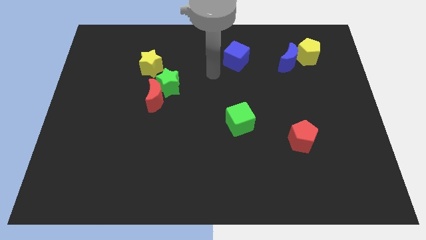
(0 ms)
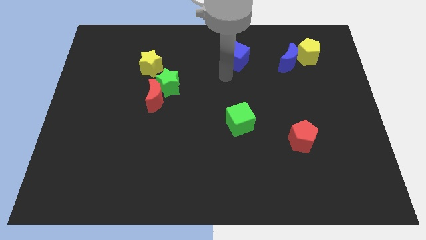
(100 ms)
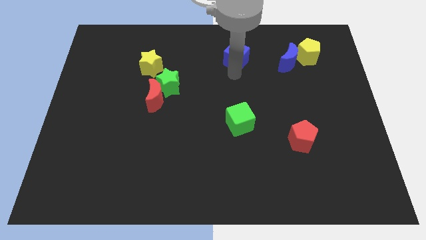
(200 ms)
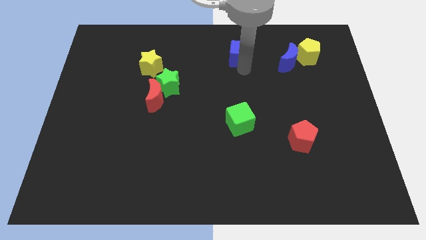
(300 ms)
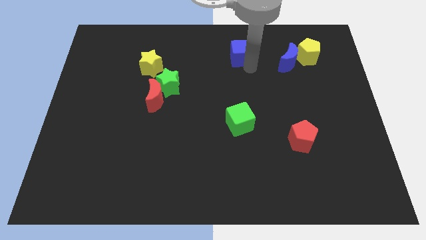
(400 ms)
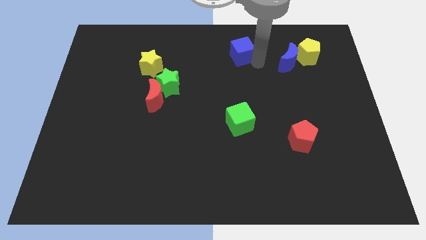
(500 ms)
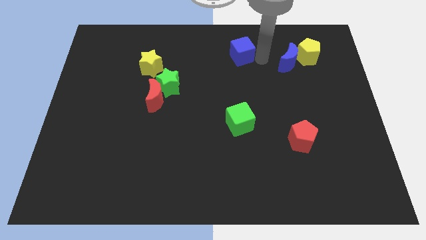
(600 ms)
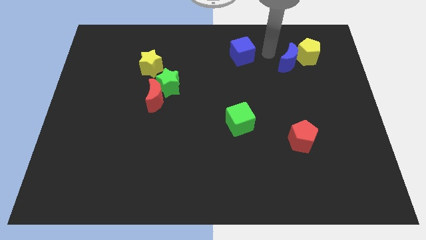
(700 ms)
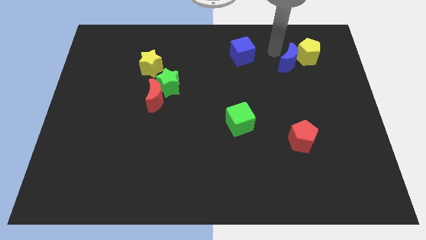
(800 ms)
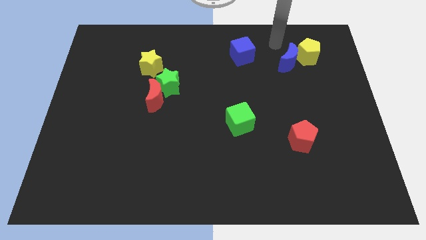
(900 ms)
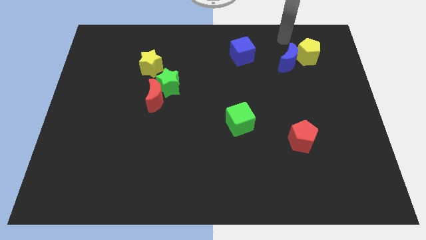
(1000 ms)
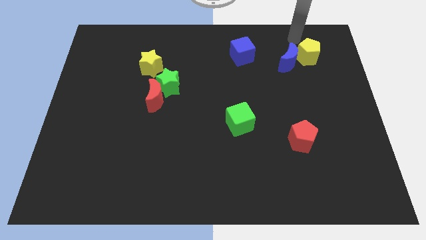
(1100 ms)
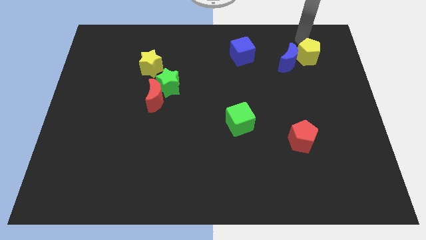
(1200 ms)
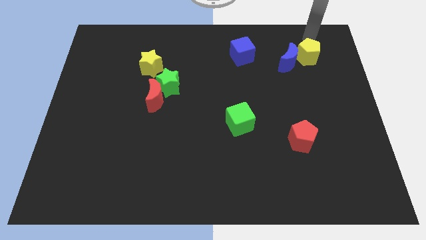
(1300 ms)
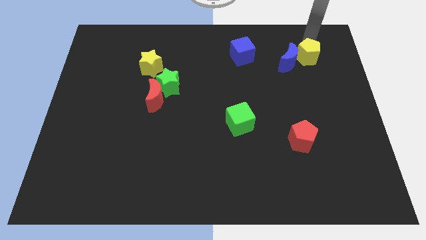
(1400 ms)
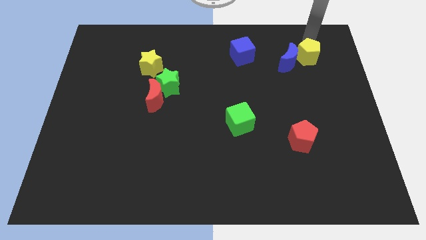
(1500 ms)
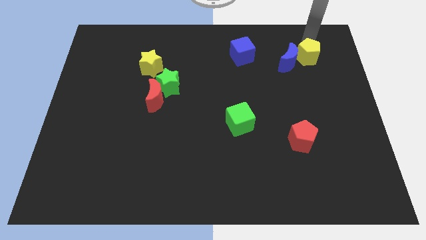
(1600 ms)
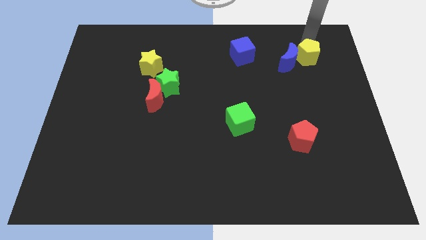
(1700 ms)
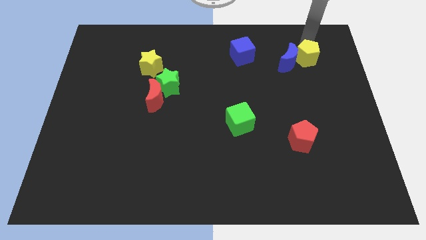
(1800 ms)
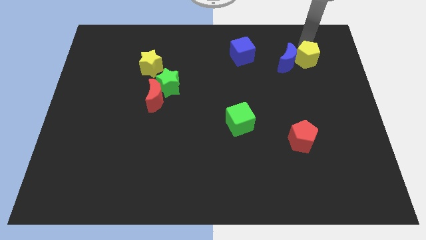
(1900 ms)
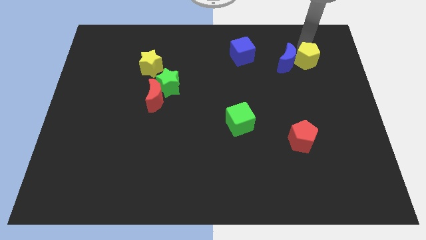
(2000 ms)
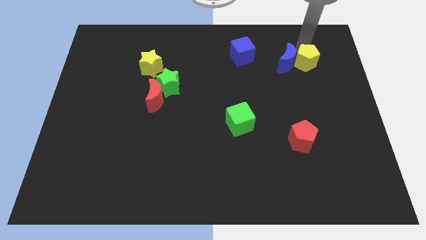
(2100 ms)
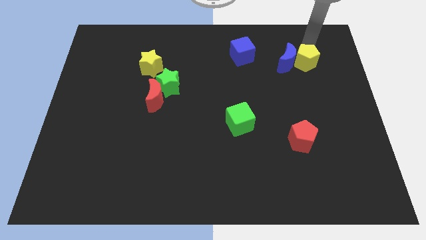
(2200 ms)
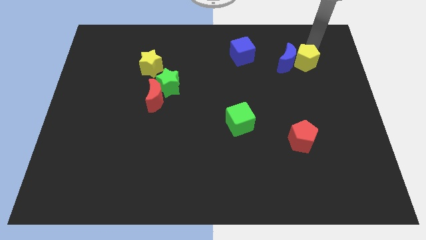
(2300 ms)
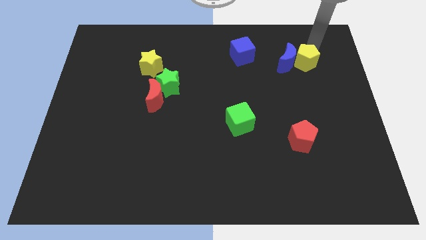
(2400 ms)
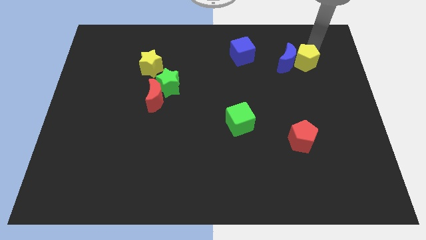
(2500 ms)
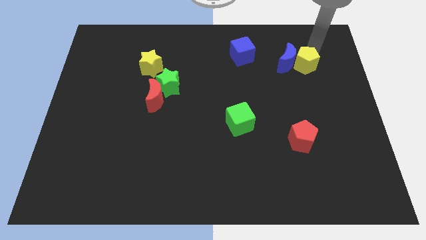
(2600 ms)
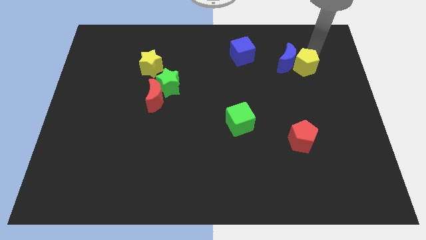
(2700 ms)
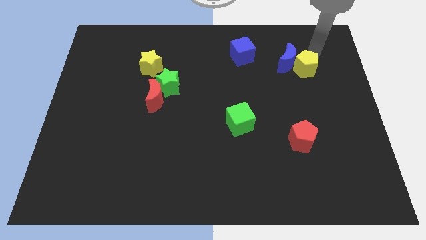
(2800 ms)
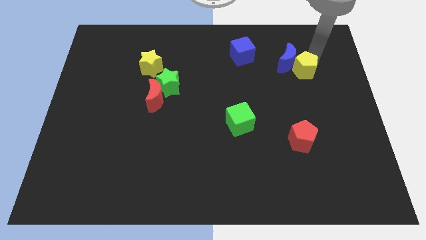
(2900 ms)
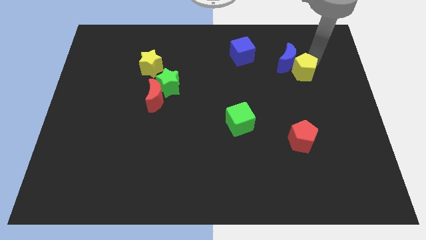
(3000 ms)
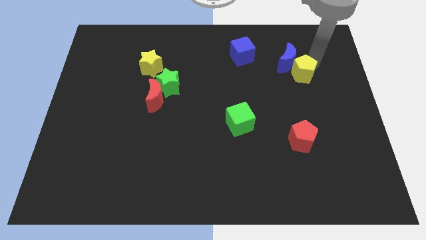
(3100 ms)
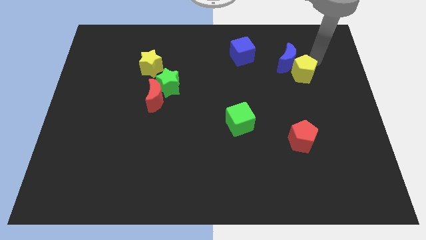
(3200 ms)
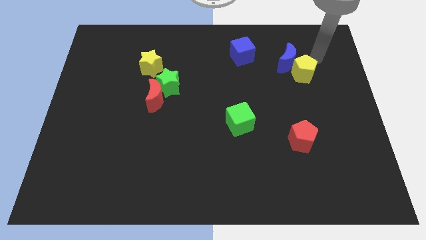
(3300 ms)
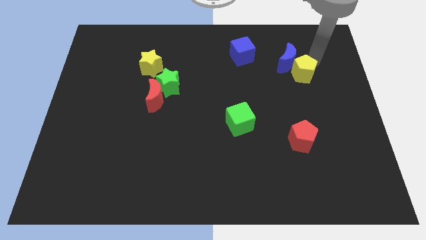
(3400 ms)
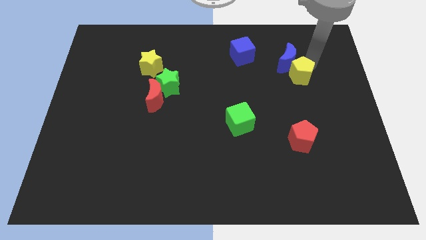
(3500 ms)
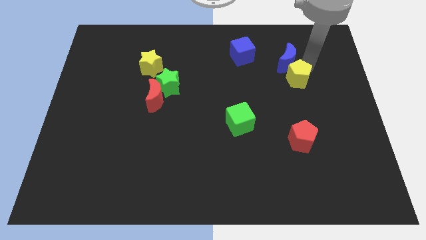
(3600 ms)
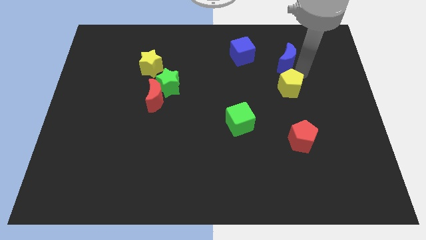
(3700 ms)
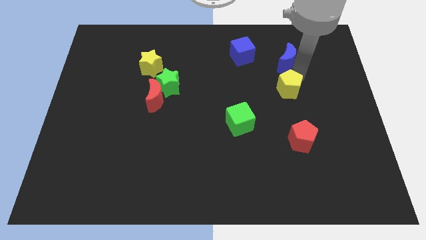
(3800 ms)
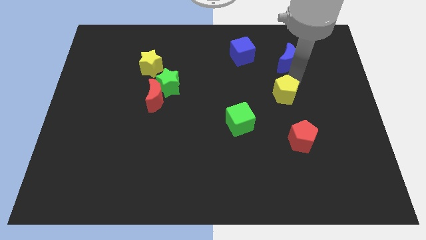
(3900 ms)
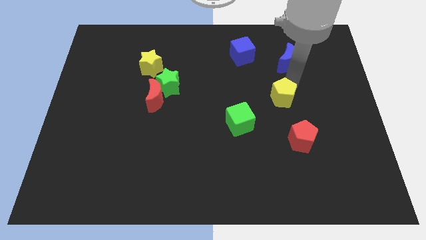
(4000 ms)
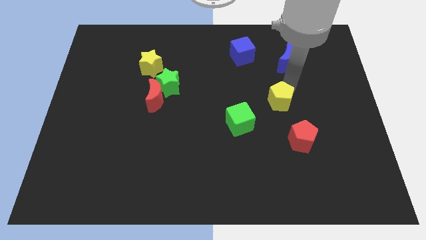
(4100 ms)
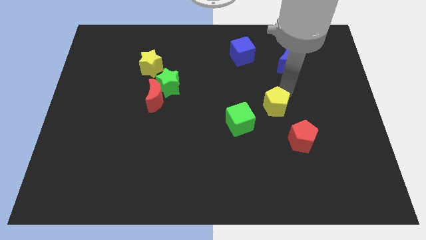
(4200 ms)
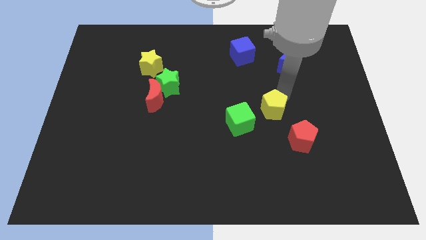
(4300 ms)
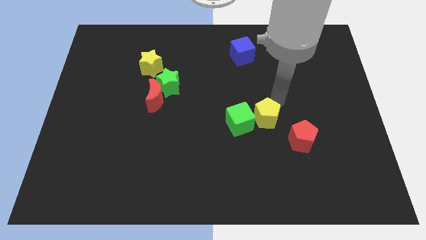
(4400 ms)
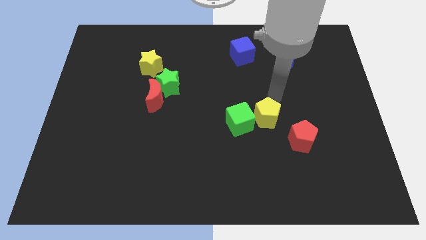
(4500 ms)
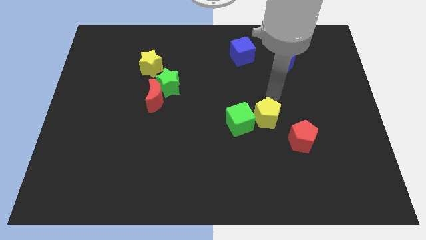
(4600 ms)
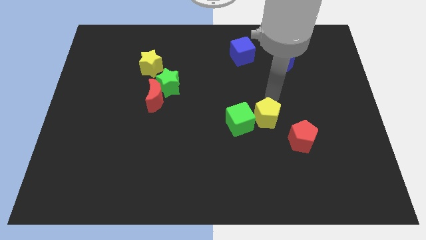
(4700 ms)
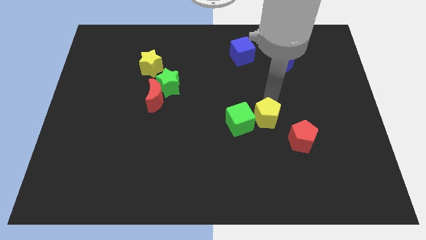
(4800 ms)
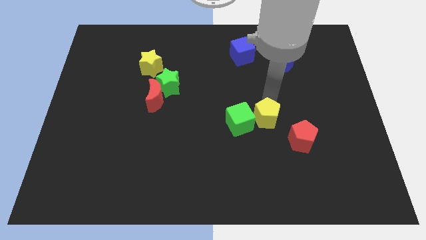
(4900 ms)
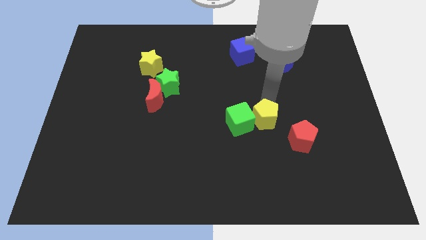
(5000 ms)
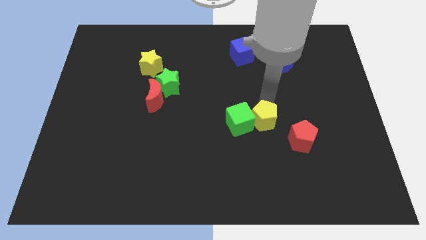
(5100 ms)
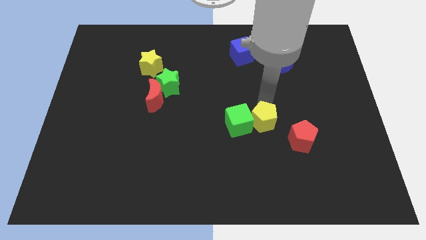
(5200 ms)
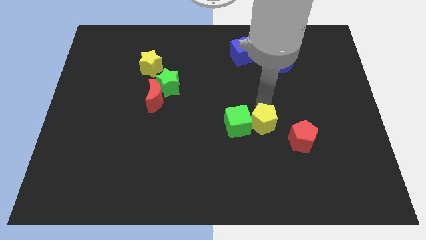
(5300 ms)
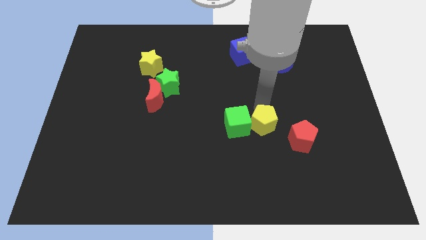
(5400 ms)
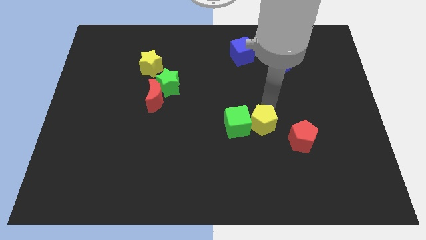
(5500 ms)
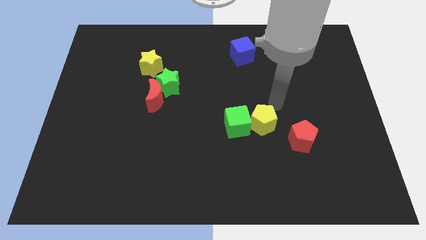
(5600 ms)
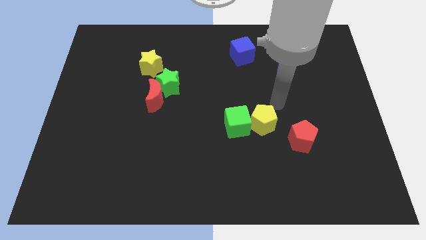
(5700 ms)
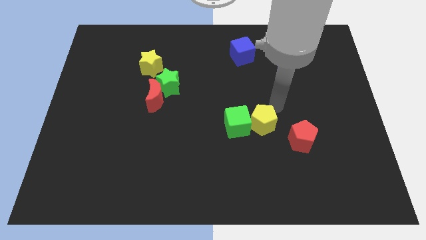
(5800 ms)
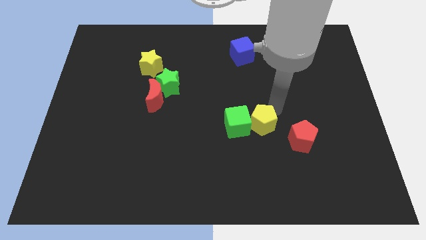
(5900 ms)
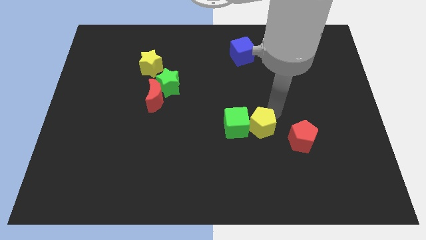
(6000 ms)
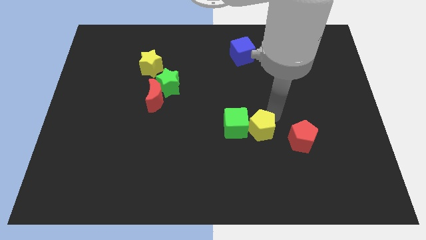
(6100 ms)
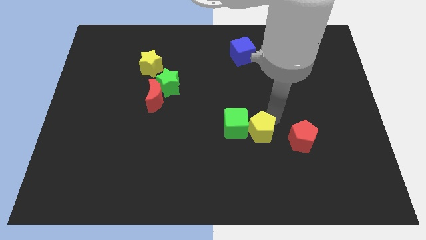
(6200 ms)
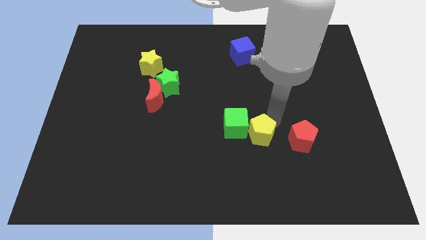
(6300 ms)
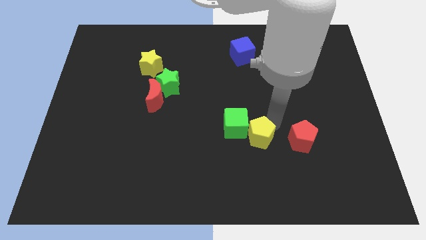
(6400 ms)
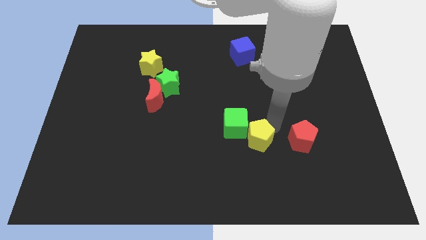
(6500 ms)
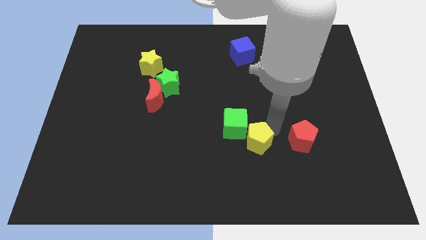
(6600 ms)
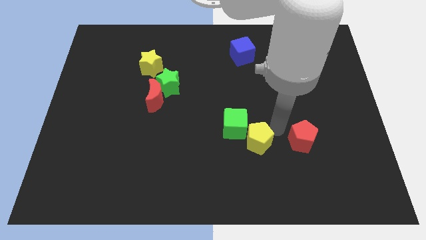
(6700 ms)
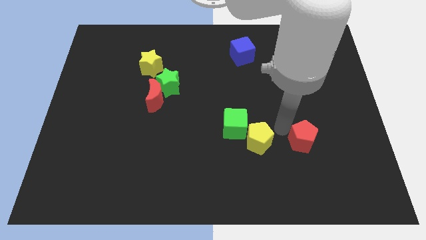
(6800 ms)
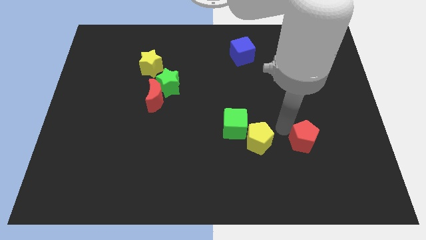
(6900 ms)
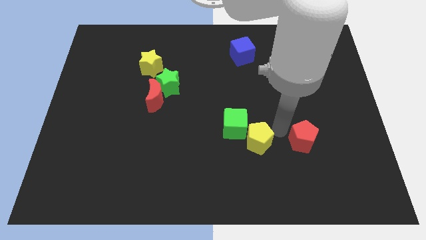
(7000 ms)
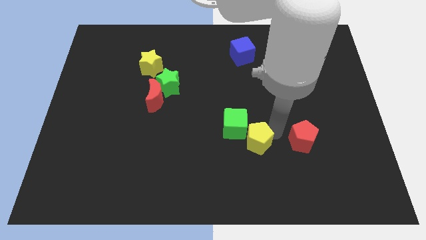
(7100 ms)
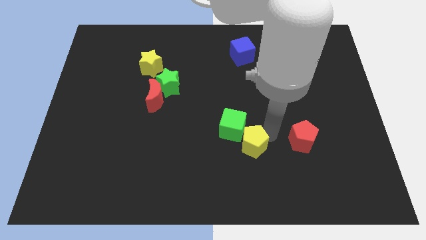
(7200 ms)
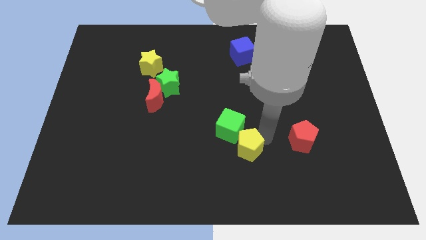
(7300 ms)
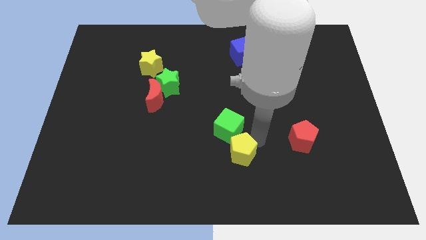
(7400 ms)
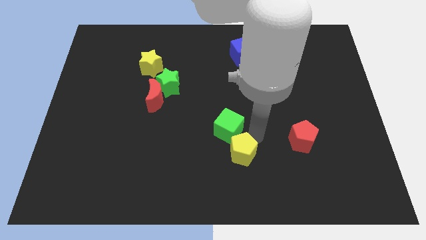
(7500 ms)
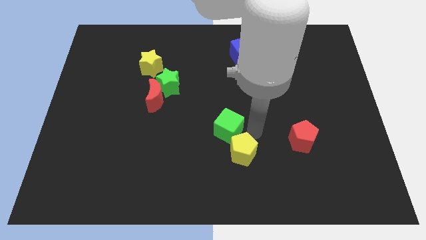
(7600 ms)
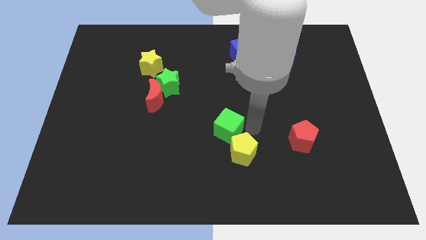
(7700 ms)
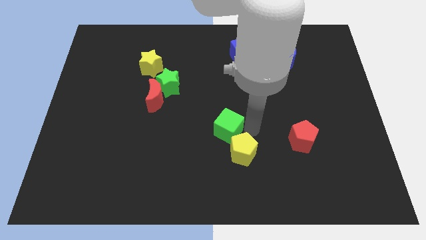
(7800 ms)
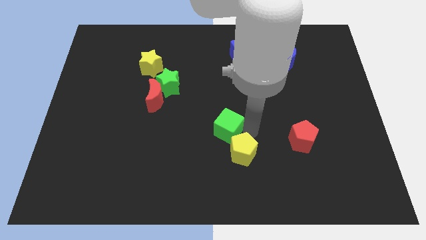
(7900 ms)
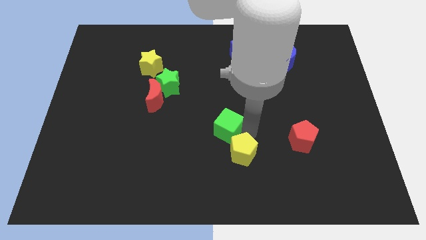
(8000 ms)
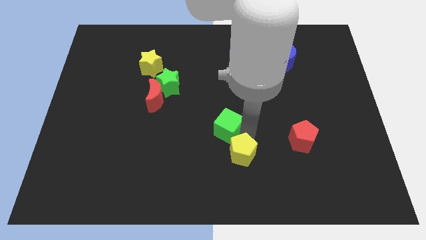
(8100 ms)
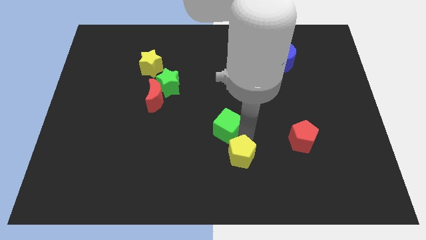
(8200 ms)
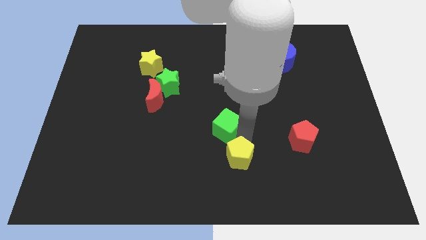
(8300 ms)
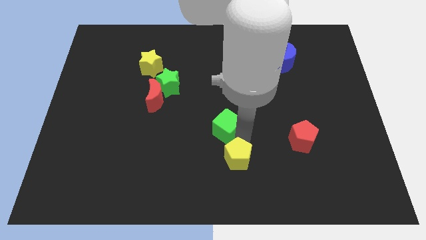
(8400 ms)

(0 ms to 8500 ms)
slide the yellow pentagon to the bottom side
